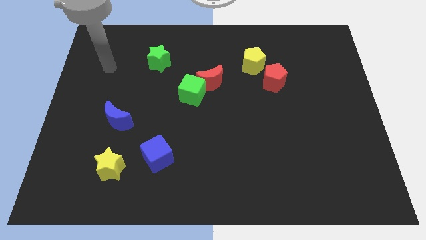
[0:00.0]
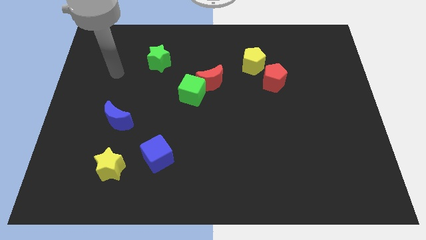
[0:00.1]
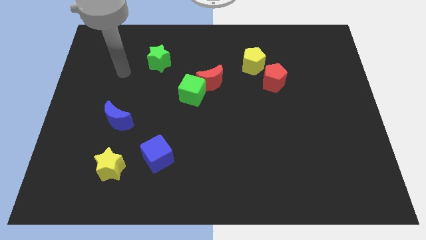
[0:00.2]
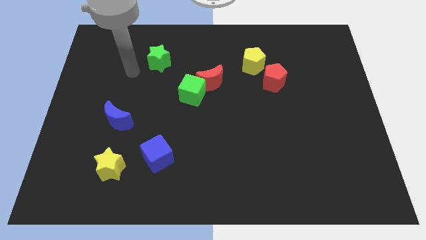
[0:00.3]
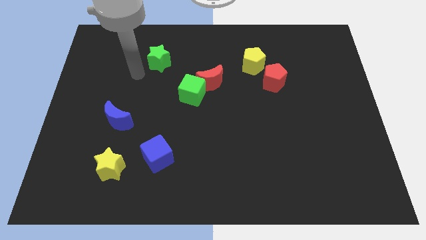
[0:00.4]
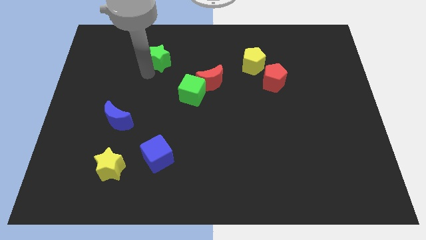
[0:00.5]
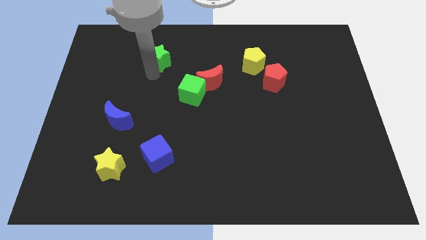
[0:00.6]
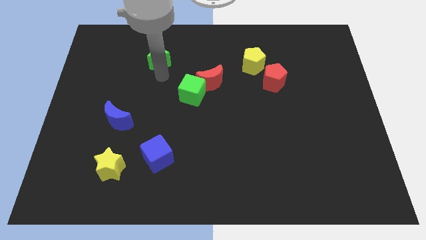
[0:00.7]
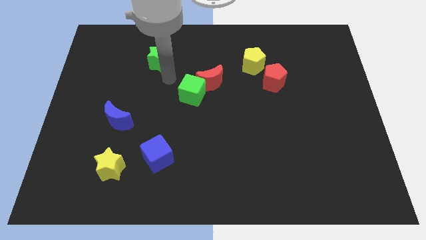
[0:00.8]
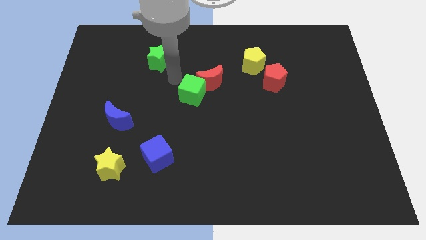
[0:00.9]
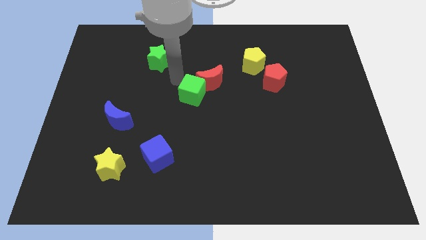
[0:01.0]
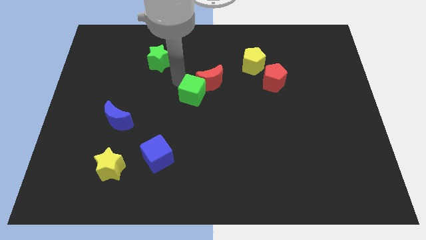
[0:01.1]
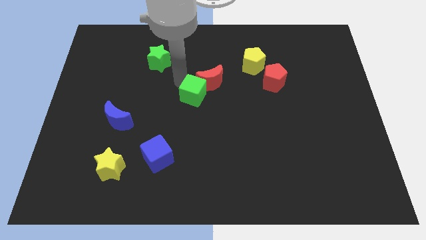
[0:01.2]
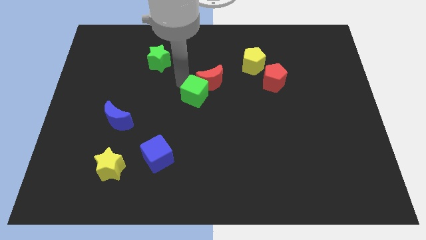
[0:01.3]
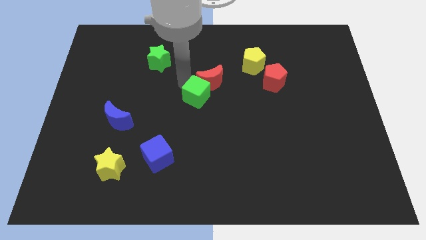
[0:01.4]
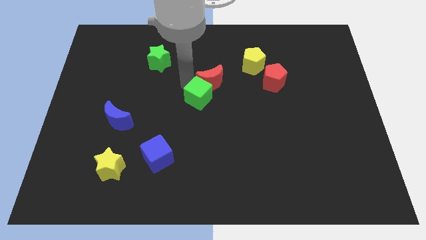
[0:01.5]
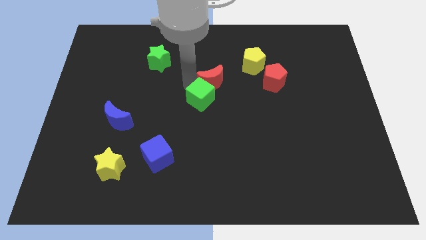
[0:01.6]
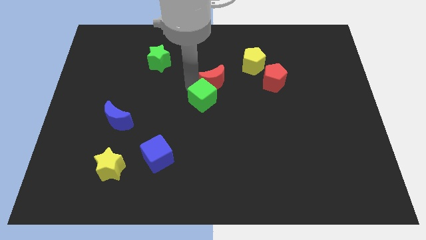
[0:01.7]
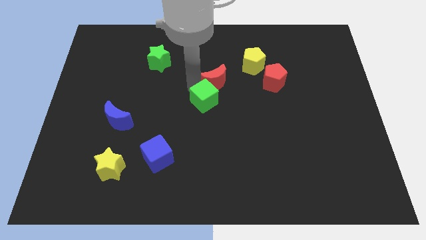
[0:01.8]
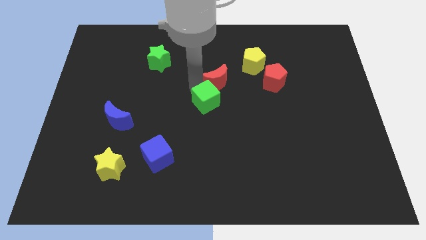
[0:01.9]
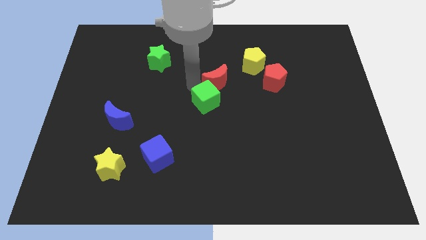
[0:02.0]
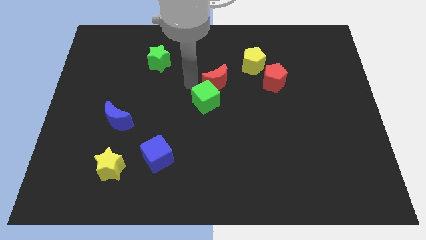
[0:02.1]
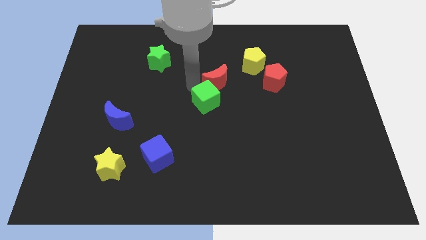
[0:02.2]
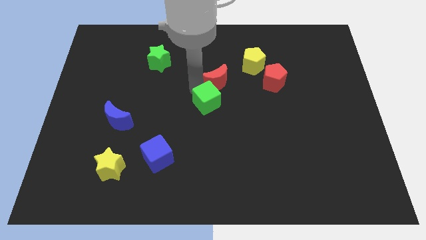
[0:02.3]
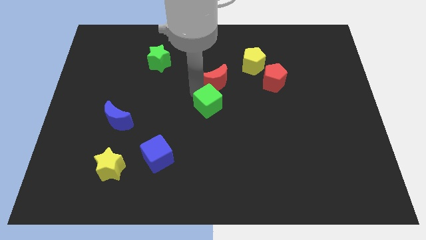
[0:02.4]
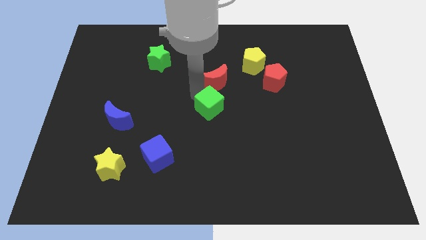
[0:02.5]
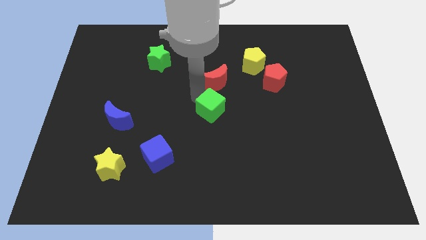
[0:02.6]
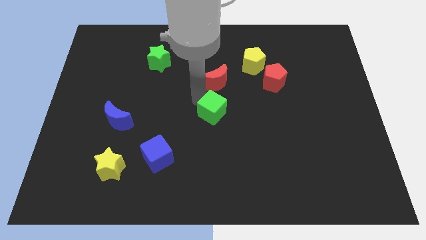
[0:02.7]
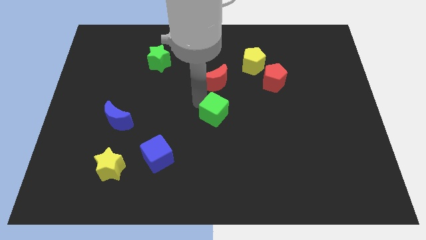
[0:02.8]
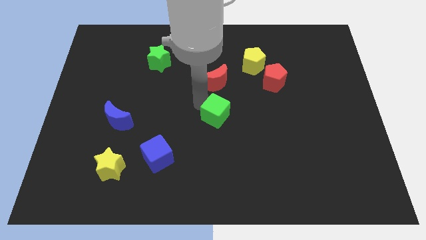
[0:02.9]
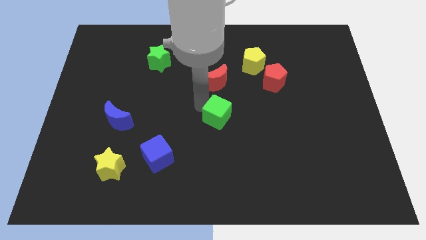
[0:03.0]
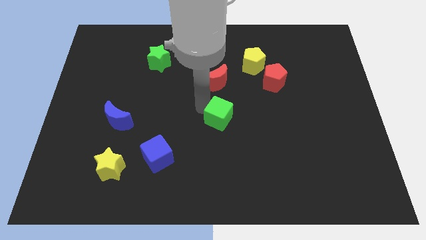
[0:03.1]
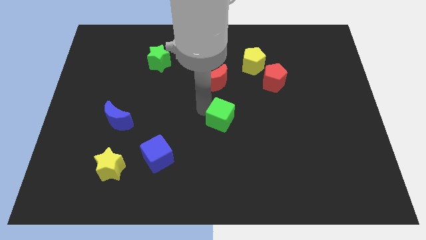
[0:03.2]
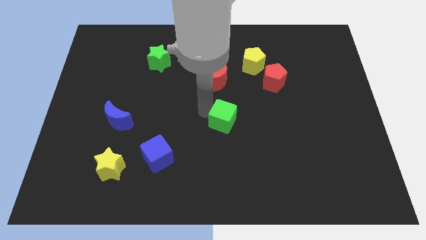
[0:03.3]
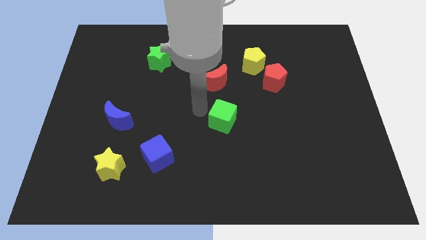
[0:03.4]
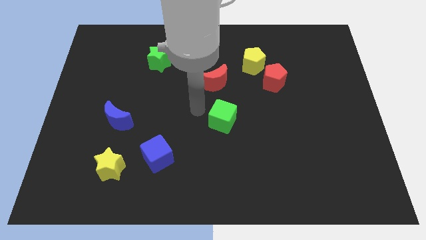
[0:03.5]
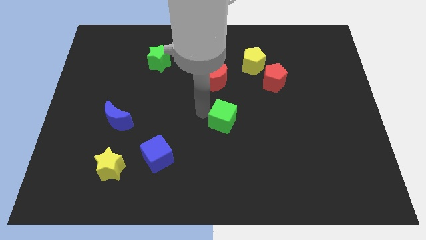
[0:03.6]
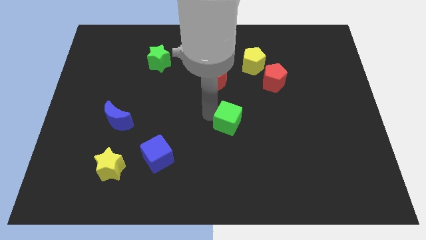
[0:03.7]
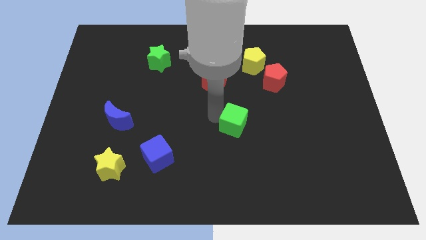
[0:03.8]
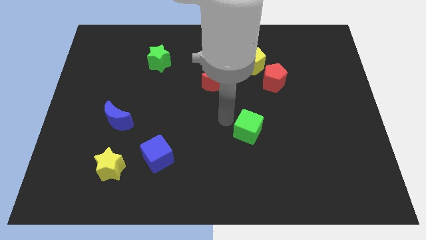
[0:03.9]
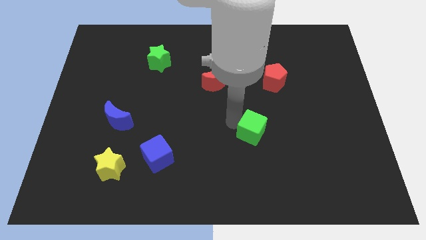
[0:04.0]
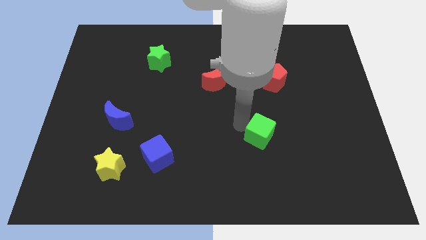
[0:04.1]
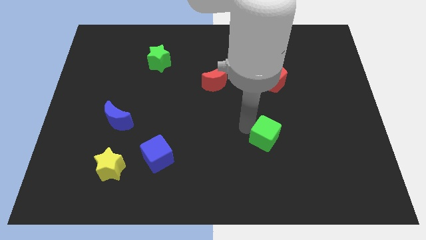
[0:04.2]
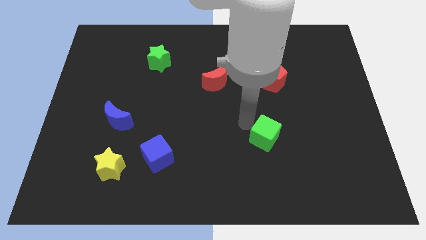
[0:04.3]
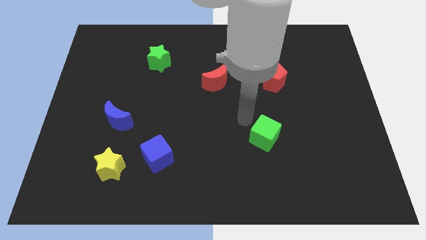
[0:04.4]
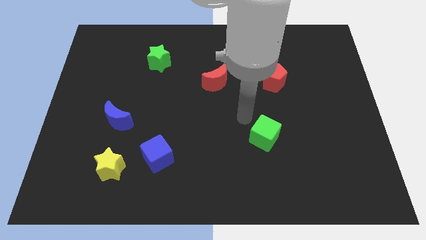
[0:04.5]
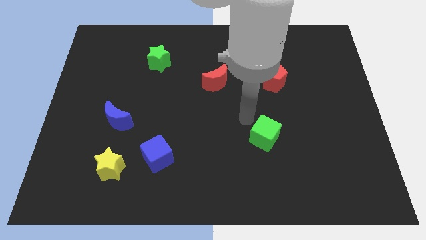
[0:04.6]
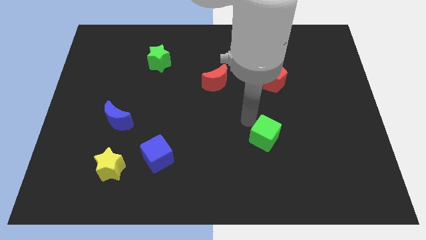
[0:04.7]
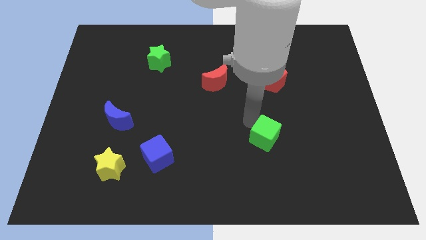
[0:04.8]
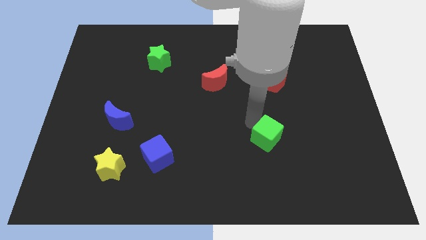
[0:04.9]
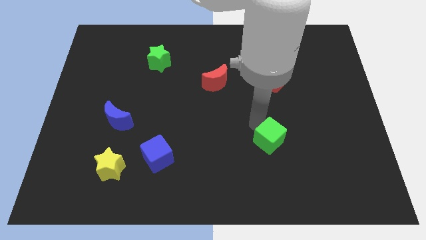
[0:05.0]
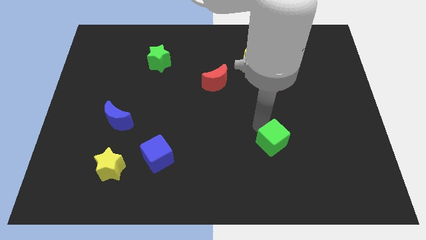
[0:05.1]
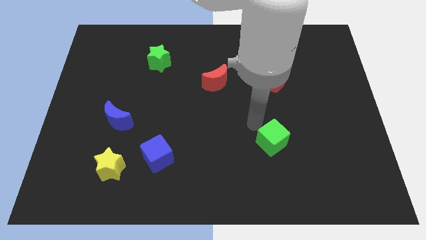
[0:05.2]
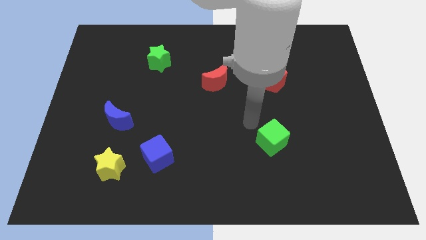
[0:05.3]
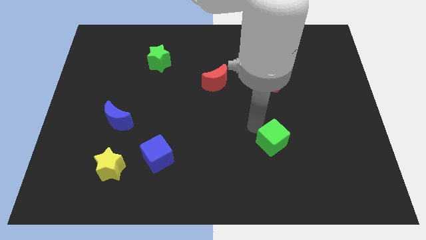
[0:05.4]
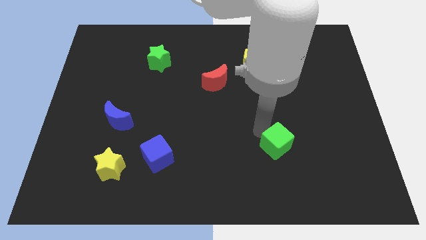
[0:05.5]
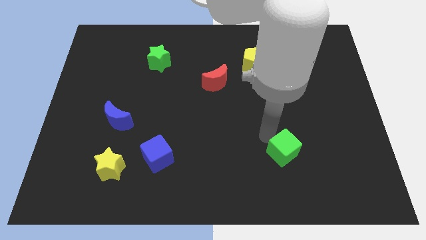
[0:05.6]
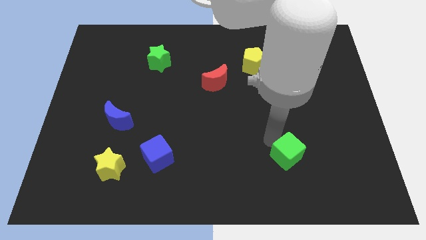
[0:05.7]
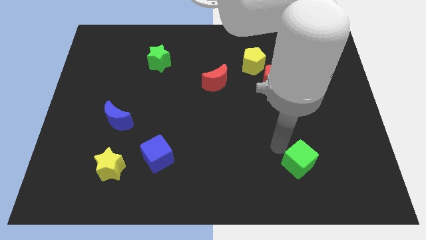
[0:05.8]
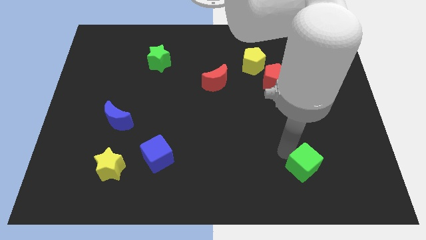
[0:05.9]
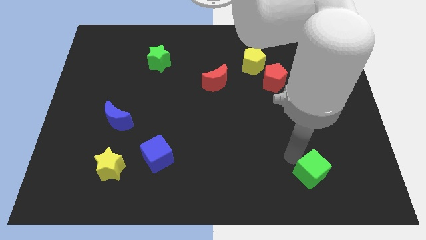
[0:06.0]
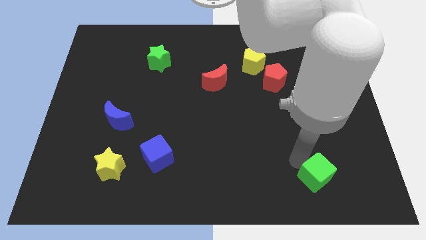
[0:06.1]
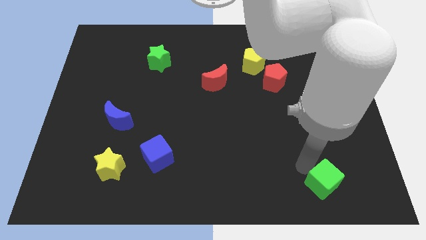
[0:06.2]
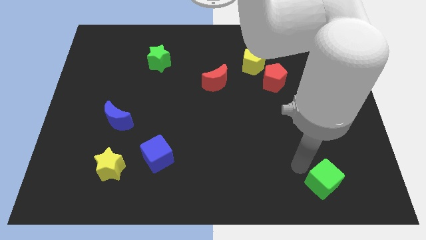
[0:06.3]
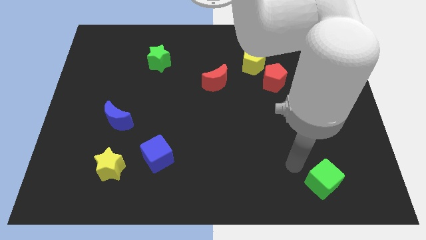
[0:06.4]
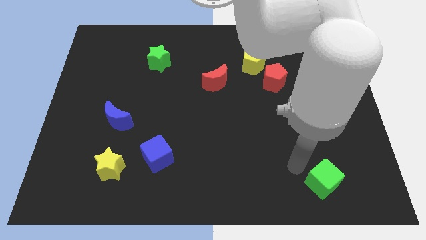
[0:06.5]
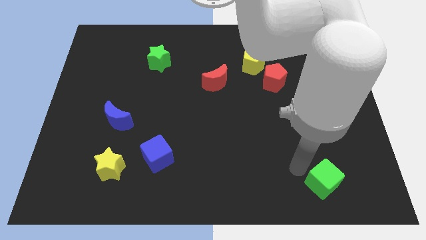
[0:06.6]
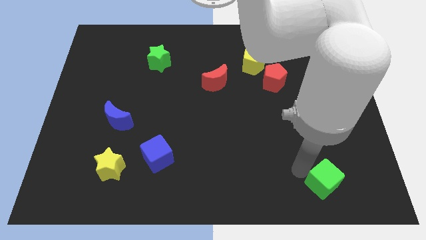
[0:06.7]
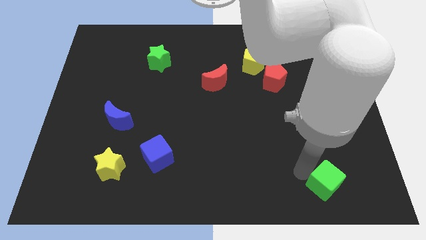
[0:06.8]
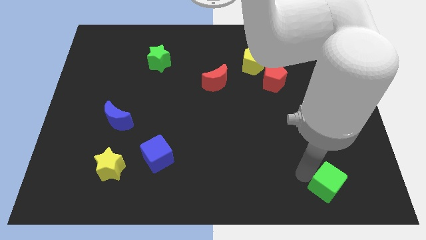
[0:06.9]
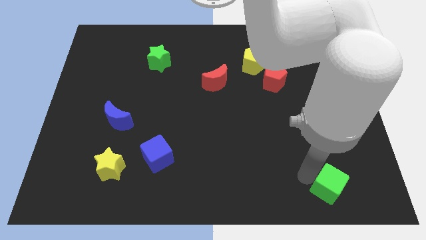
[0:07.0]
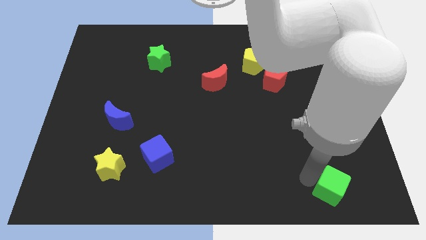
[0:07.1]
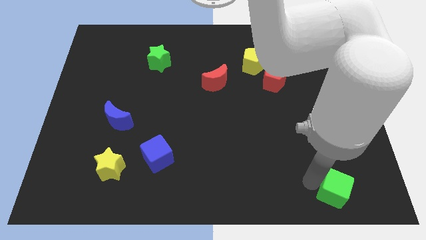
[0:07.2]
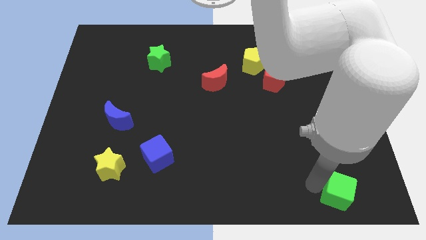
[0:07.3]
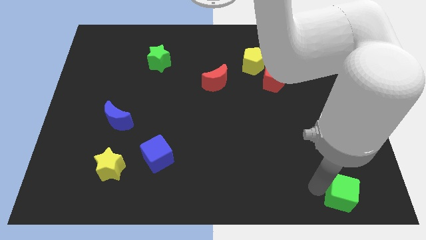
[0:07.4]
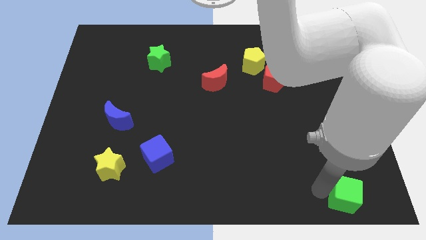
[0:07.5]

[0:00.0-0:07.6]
push the green cube to the bottom right corner
